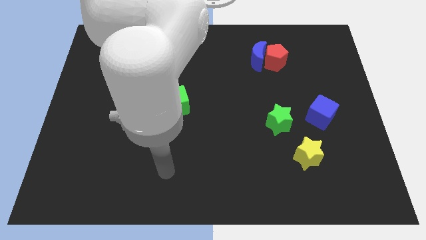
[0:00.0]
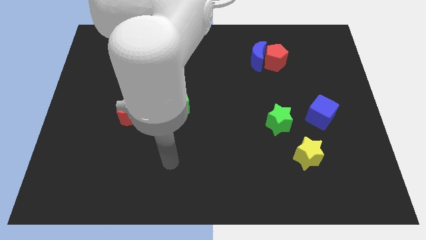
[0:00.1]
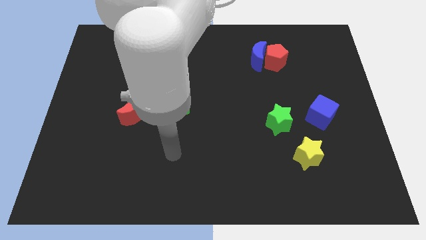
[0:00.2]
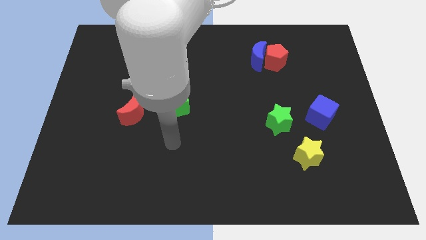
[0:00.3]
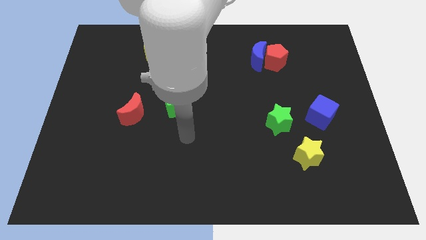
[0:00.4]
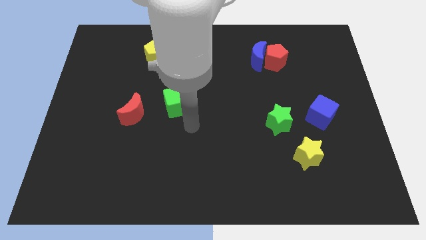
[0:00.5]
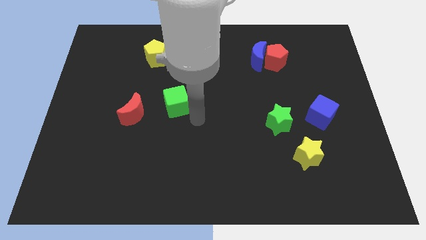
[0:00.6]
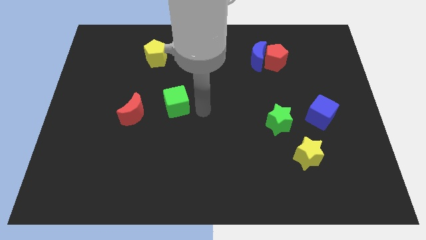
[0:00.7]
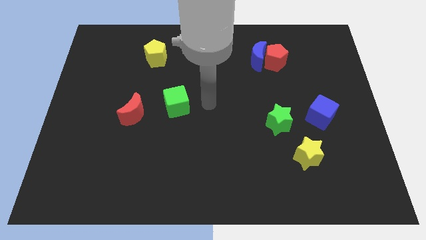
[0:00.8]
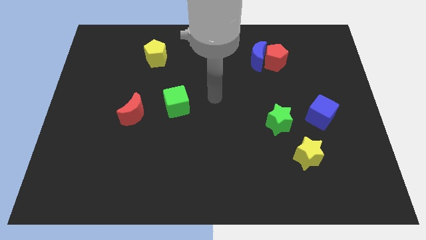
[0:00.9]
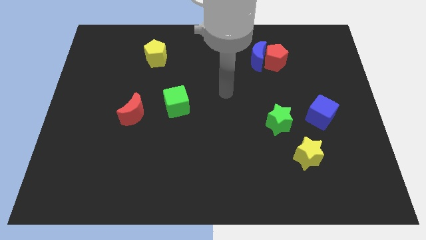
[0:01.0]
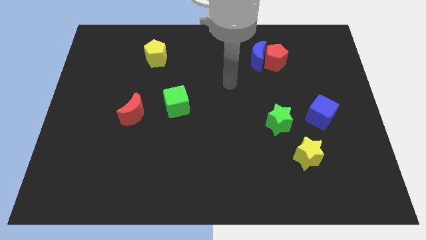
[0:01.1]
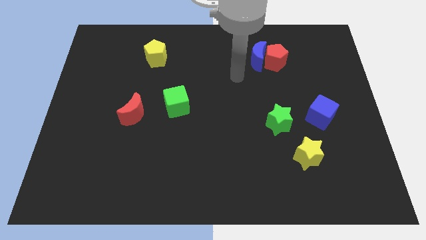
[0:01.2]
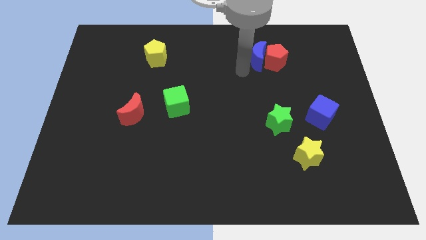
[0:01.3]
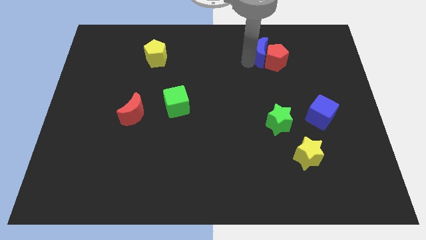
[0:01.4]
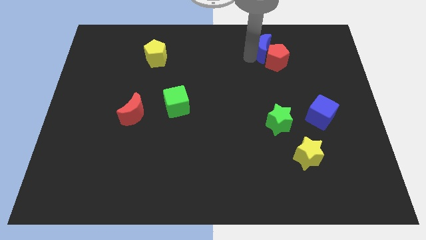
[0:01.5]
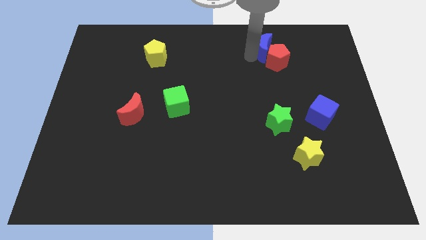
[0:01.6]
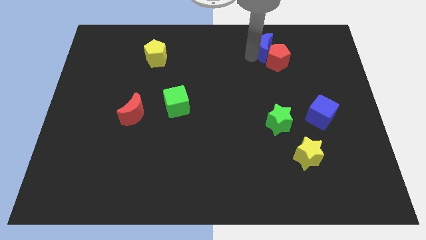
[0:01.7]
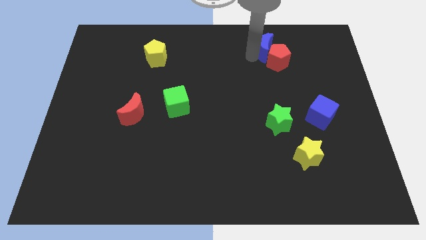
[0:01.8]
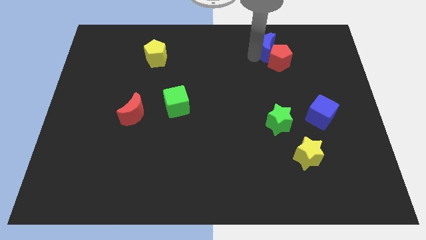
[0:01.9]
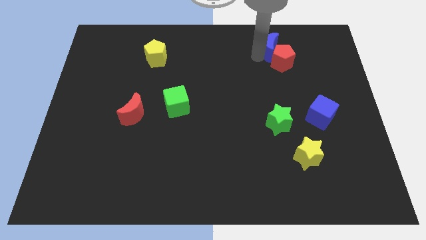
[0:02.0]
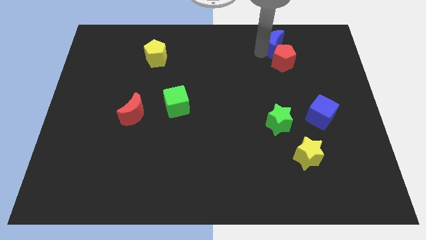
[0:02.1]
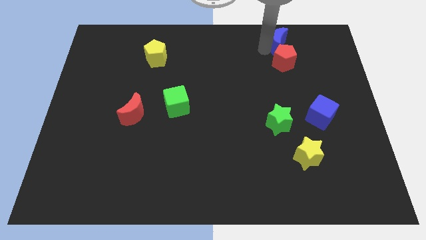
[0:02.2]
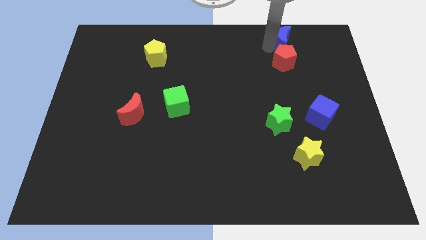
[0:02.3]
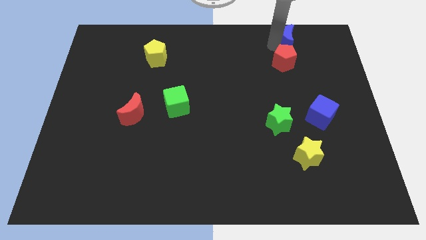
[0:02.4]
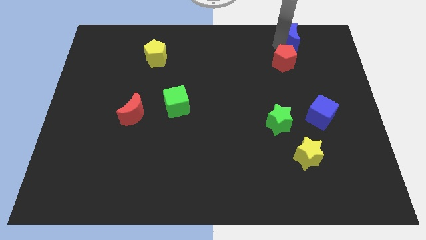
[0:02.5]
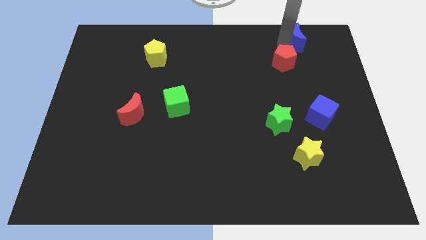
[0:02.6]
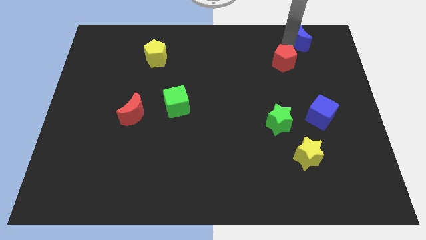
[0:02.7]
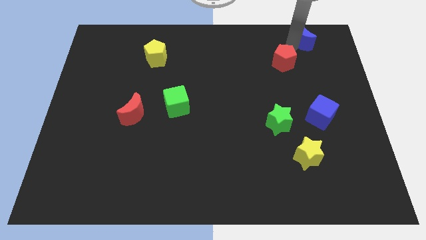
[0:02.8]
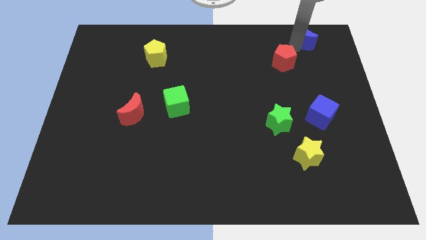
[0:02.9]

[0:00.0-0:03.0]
separate the red pentagon from the blue moon

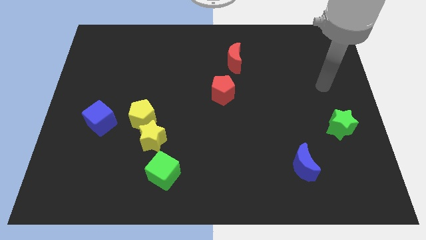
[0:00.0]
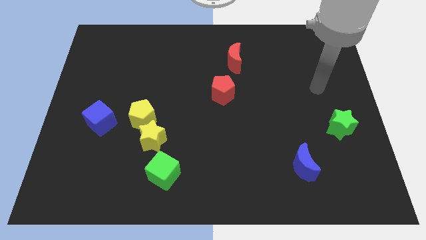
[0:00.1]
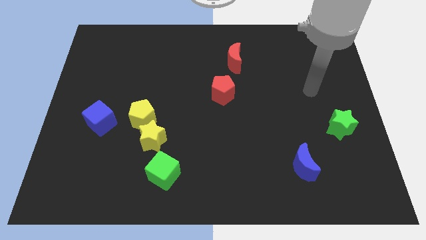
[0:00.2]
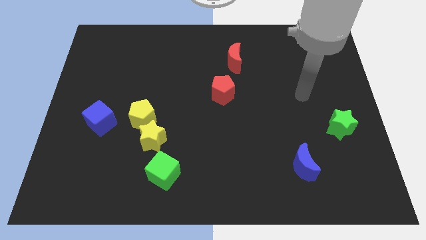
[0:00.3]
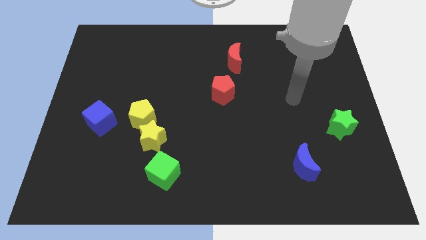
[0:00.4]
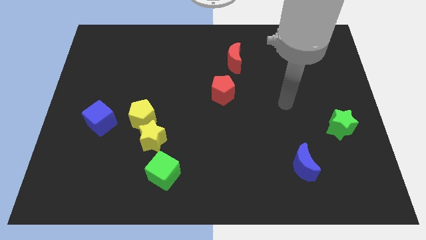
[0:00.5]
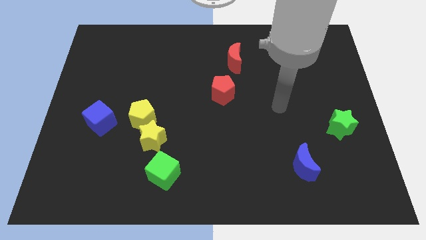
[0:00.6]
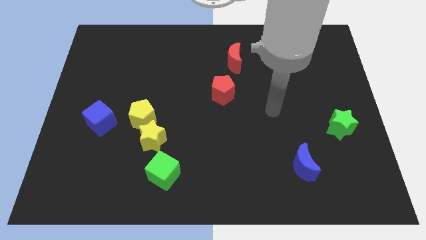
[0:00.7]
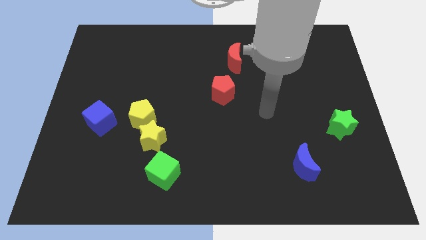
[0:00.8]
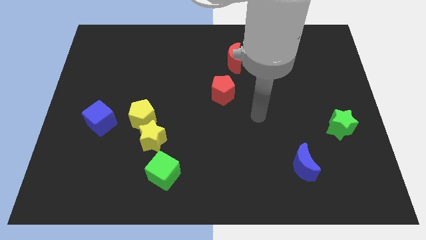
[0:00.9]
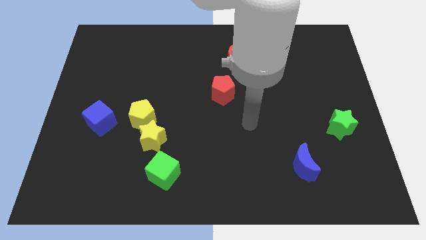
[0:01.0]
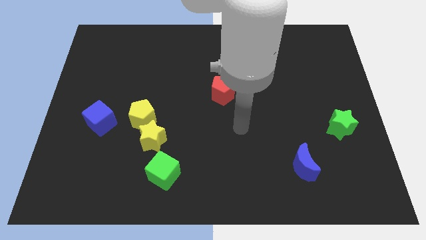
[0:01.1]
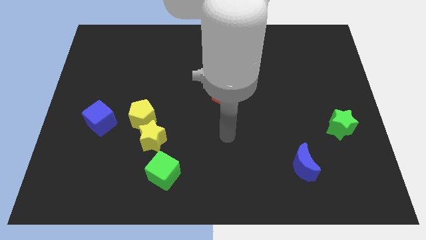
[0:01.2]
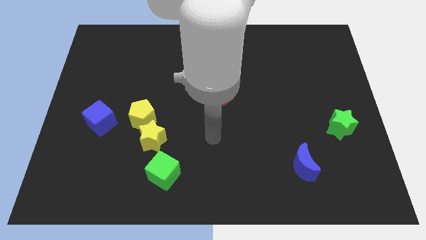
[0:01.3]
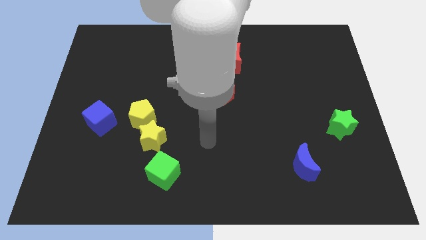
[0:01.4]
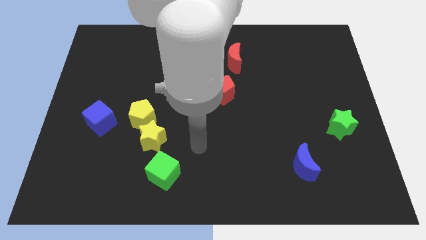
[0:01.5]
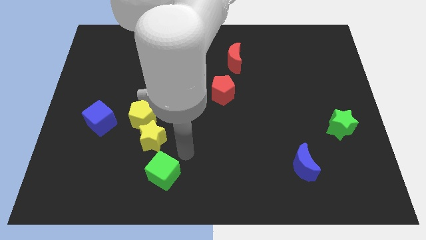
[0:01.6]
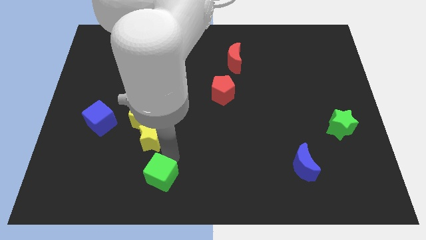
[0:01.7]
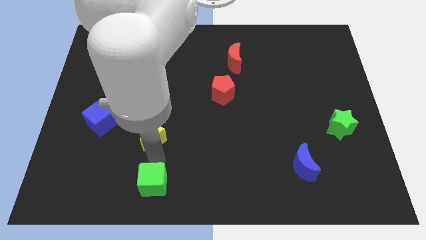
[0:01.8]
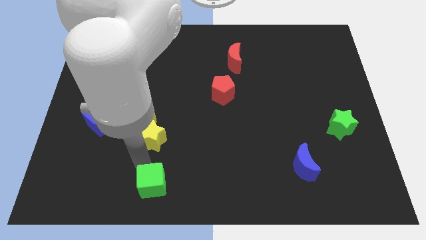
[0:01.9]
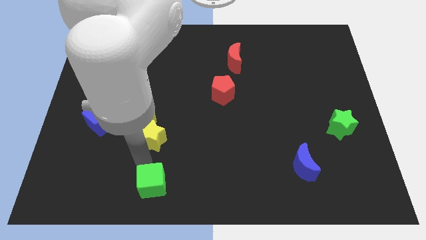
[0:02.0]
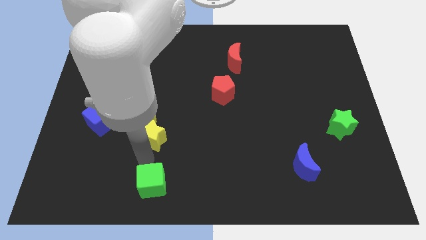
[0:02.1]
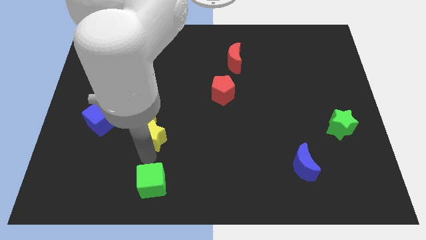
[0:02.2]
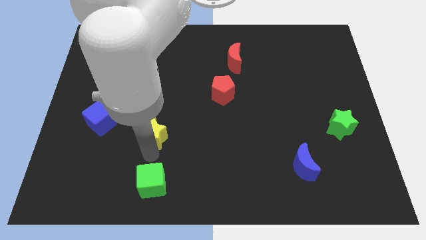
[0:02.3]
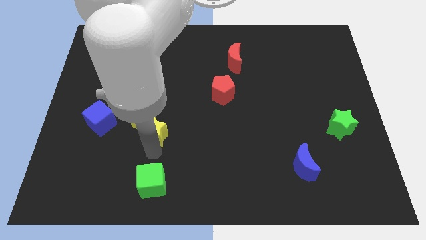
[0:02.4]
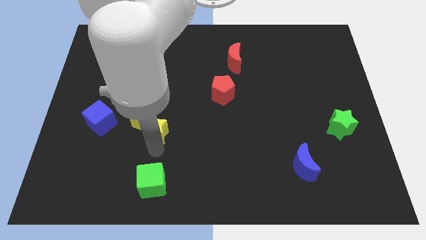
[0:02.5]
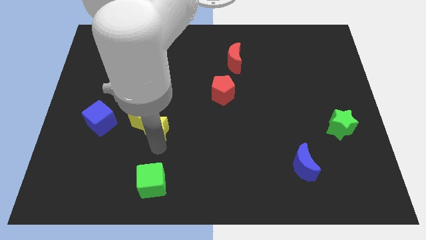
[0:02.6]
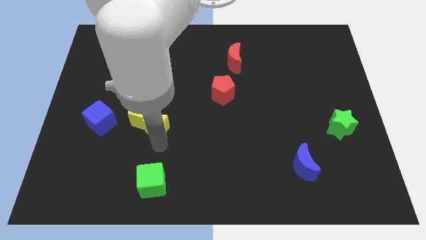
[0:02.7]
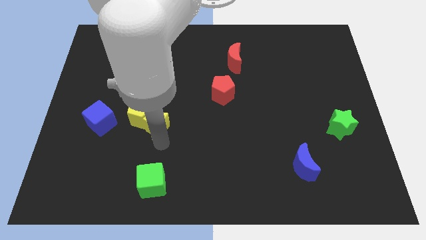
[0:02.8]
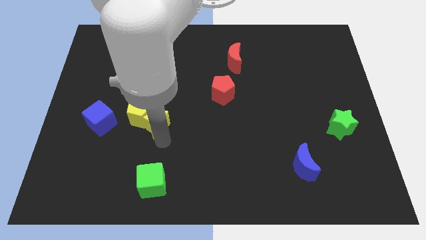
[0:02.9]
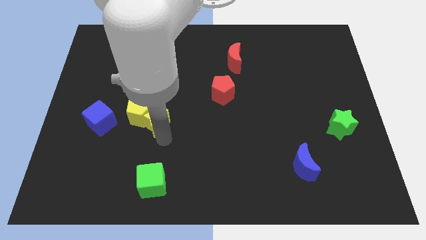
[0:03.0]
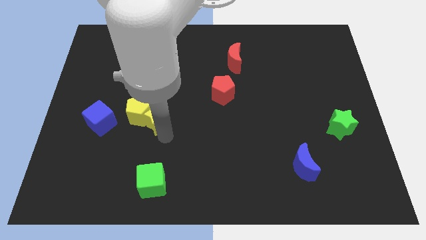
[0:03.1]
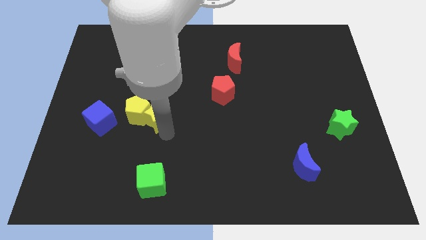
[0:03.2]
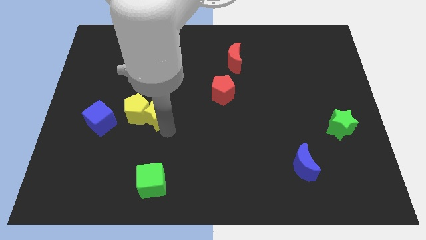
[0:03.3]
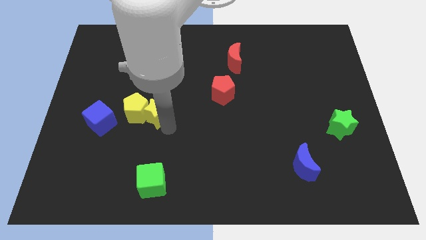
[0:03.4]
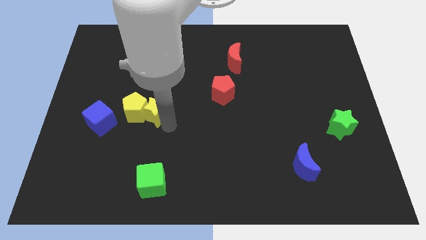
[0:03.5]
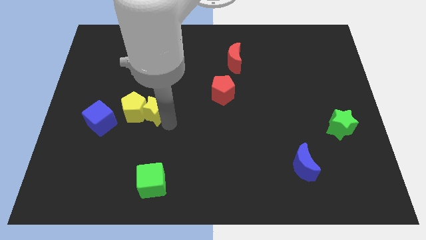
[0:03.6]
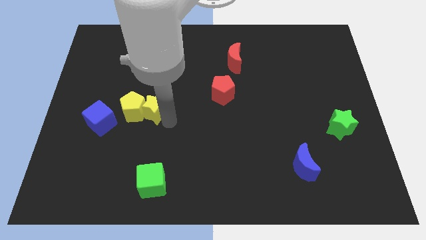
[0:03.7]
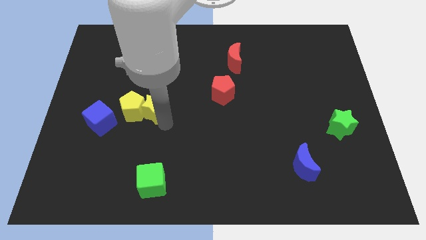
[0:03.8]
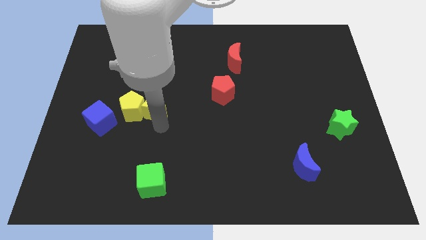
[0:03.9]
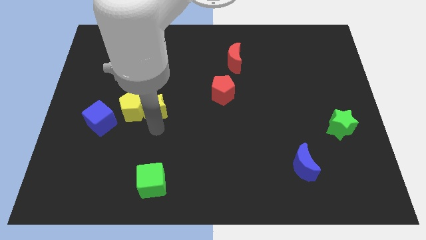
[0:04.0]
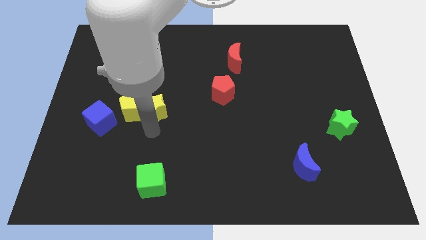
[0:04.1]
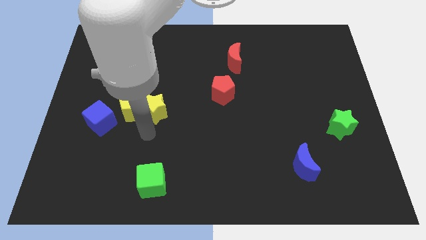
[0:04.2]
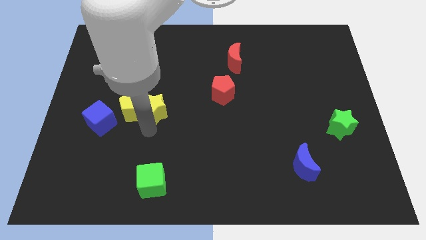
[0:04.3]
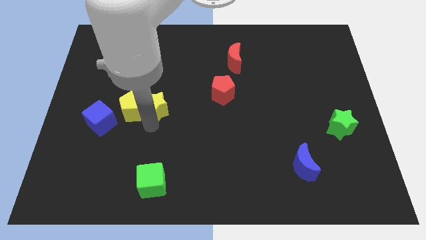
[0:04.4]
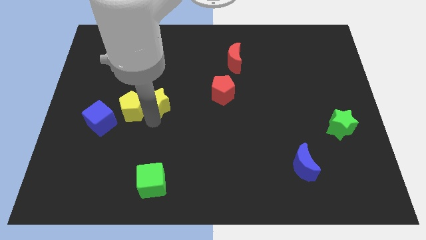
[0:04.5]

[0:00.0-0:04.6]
pull the yellow star apart from the yellow pentagon and green cube

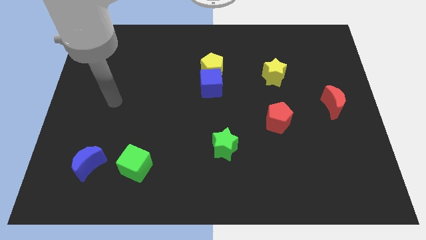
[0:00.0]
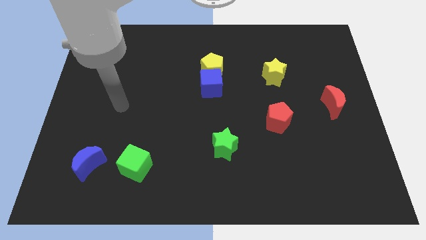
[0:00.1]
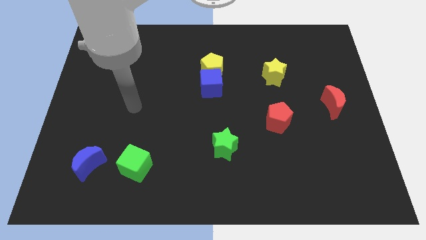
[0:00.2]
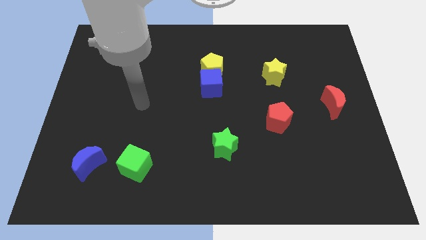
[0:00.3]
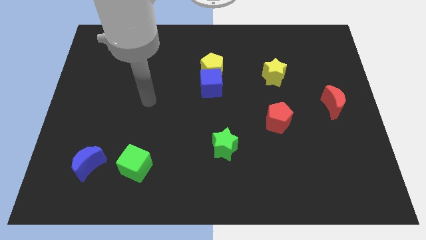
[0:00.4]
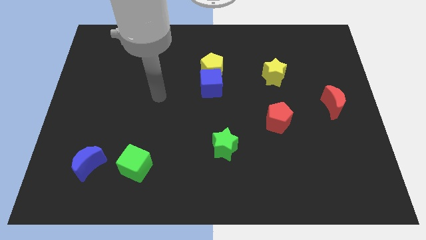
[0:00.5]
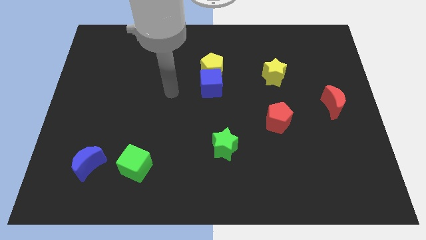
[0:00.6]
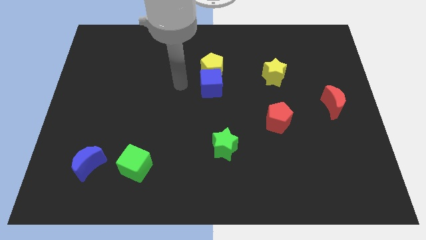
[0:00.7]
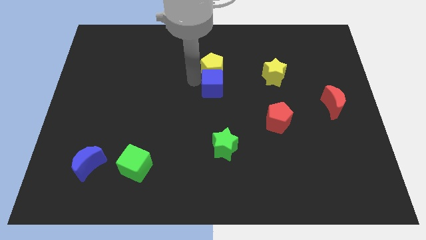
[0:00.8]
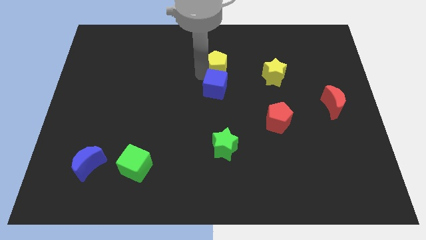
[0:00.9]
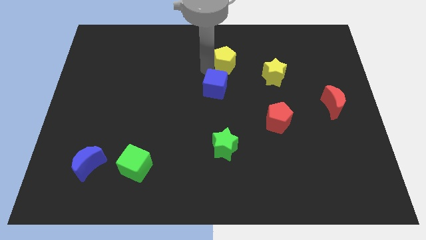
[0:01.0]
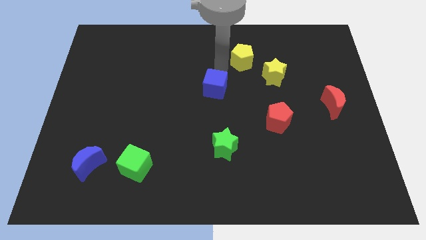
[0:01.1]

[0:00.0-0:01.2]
separate the blue cube from the yellow pentagon

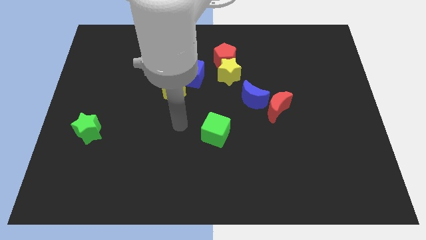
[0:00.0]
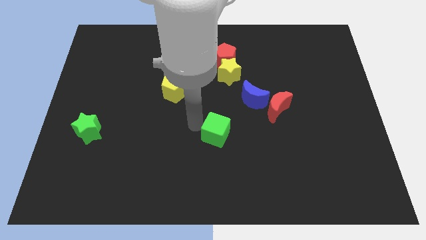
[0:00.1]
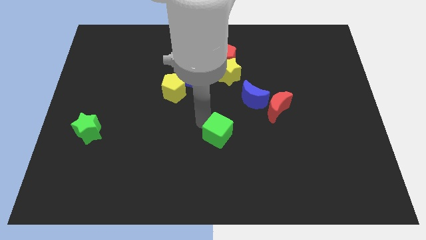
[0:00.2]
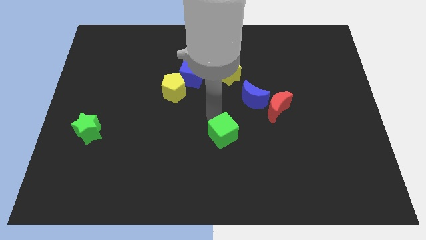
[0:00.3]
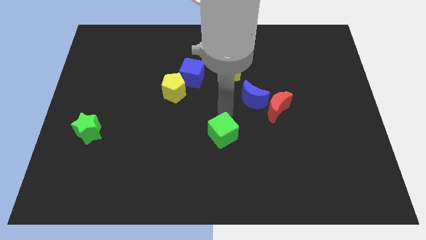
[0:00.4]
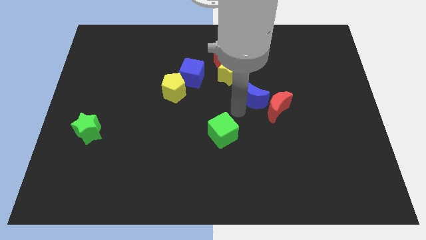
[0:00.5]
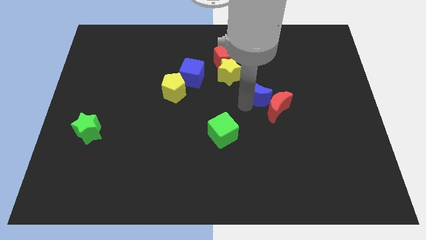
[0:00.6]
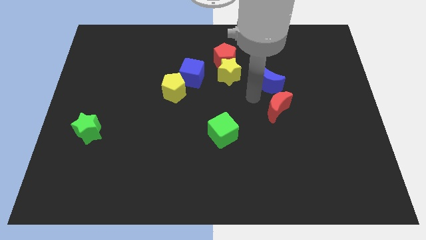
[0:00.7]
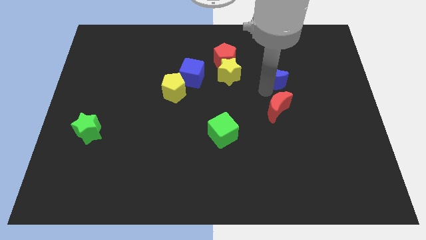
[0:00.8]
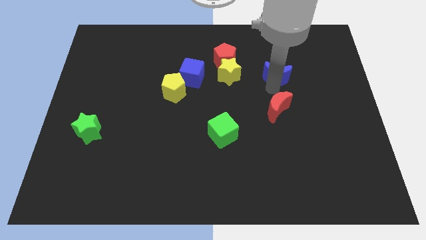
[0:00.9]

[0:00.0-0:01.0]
separate the red moon from the blue moon
